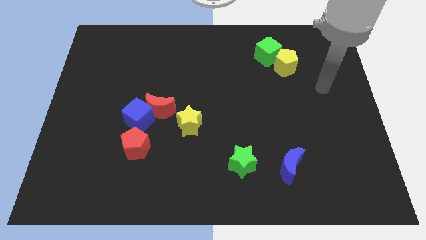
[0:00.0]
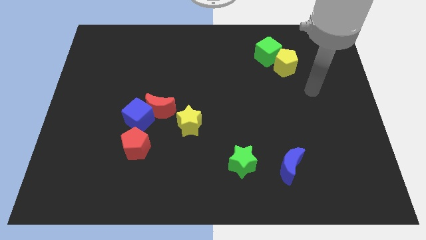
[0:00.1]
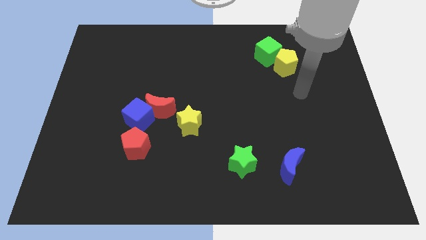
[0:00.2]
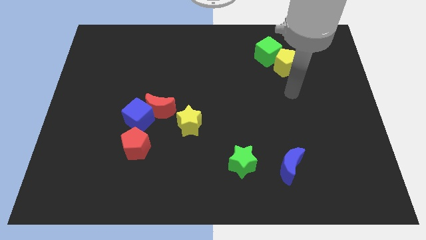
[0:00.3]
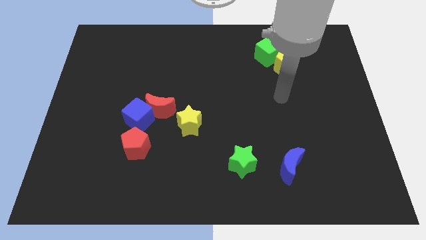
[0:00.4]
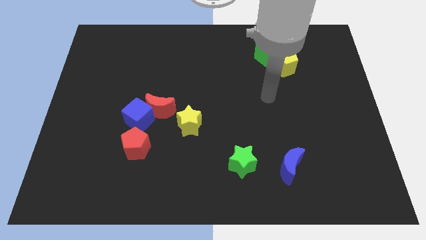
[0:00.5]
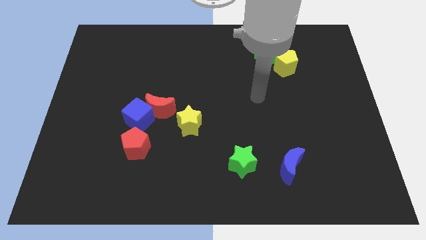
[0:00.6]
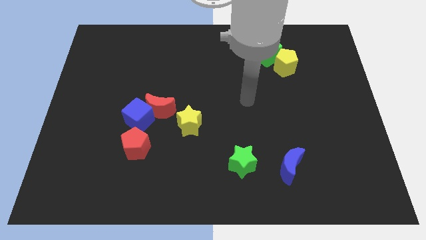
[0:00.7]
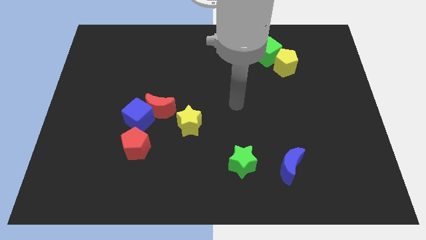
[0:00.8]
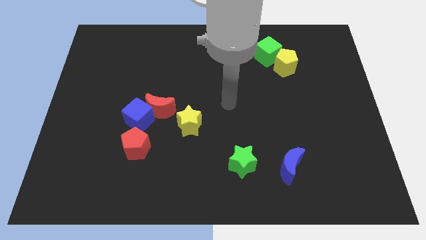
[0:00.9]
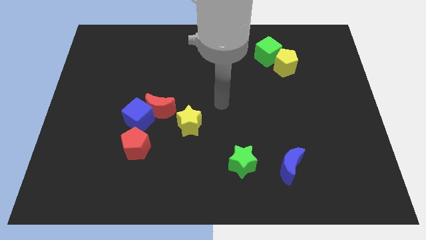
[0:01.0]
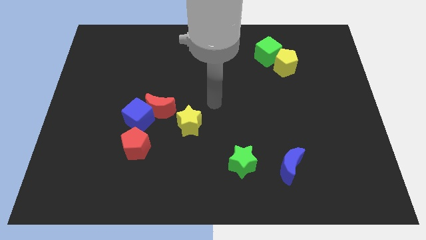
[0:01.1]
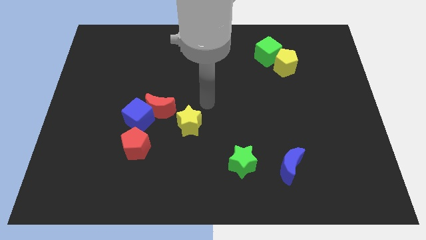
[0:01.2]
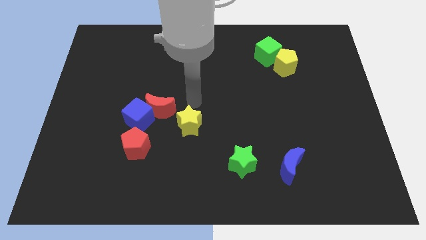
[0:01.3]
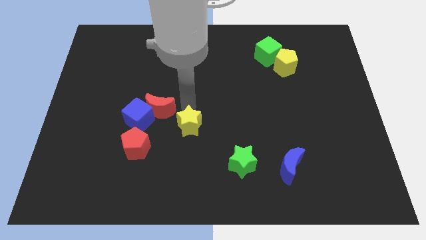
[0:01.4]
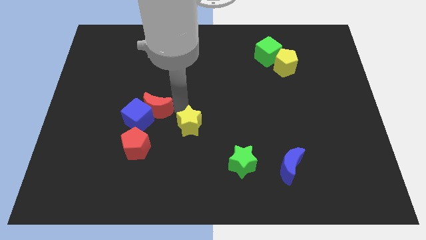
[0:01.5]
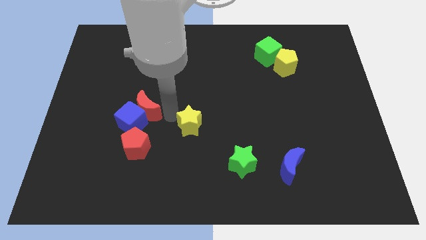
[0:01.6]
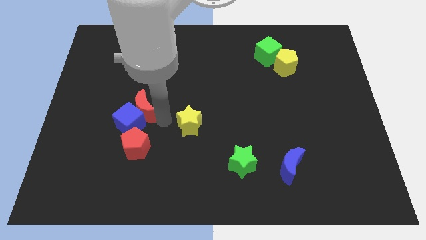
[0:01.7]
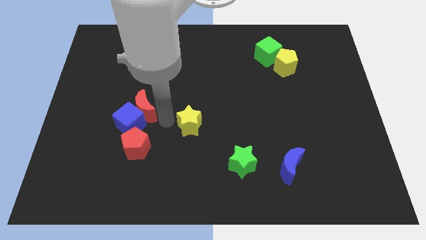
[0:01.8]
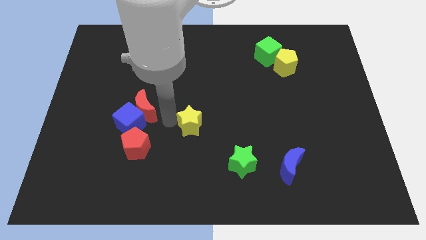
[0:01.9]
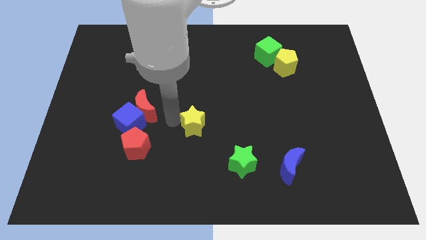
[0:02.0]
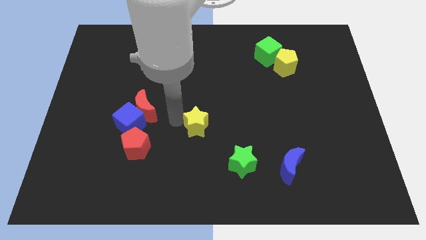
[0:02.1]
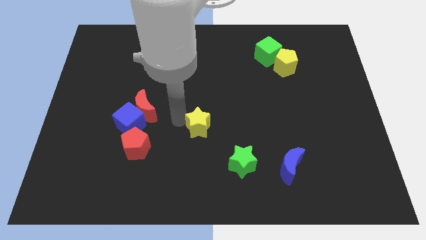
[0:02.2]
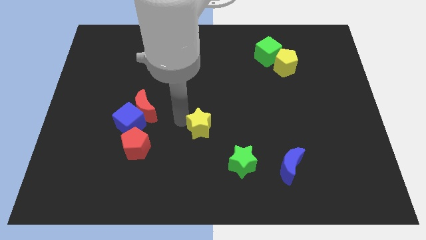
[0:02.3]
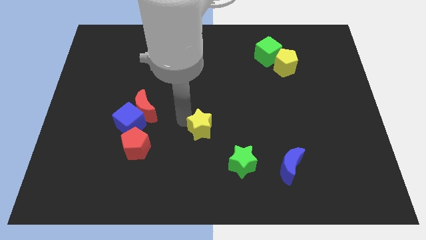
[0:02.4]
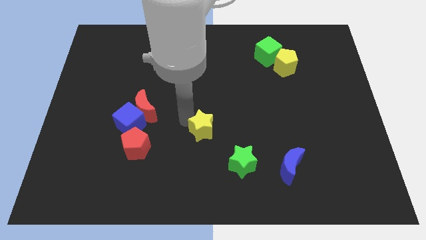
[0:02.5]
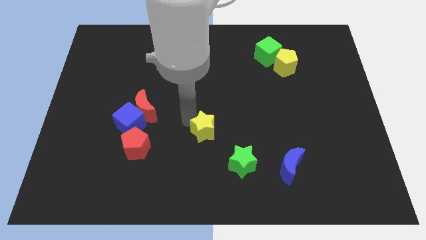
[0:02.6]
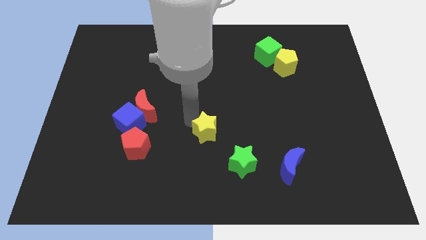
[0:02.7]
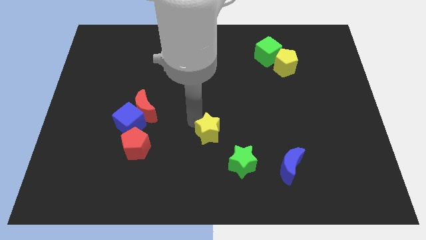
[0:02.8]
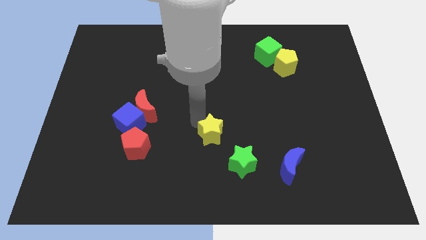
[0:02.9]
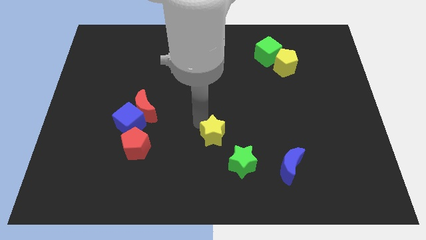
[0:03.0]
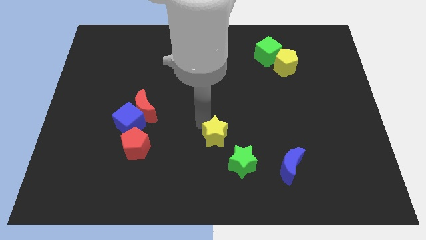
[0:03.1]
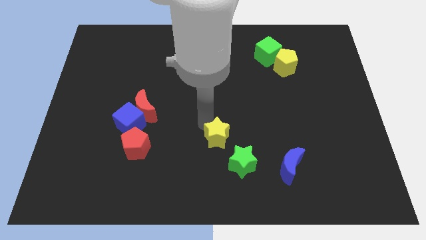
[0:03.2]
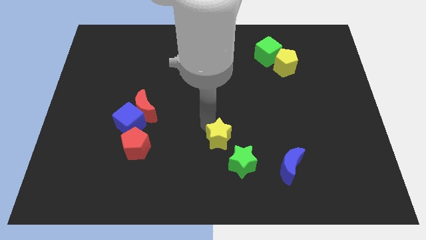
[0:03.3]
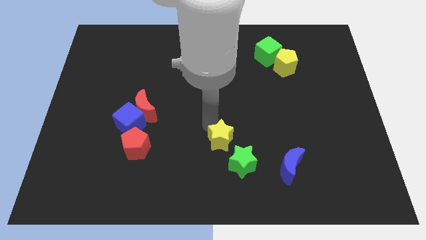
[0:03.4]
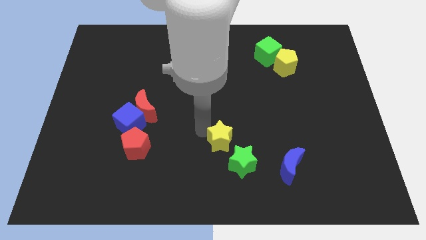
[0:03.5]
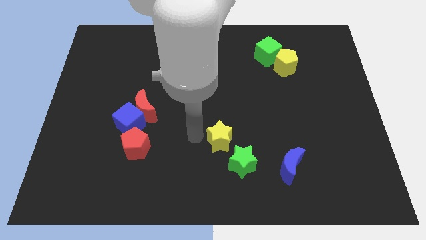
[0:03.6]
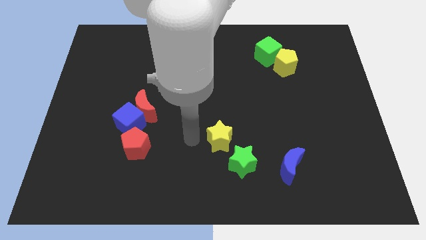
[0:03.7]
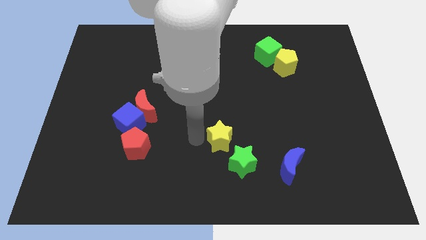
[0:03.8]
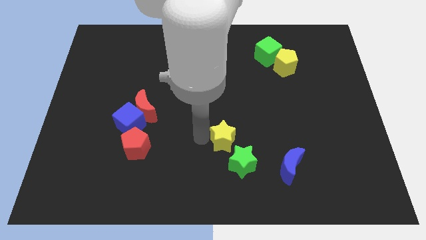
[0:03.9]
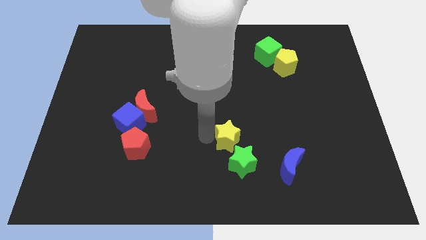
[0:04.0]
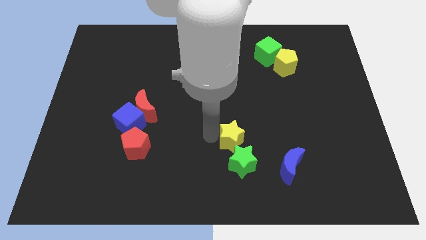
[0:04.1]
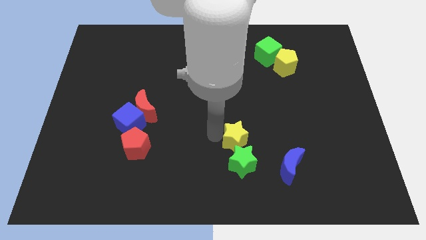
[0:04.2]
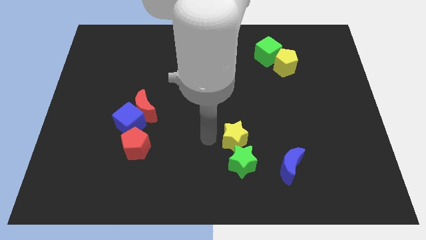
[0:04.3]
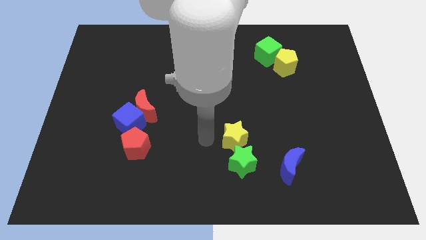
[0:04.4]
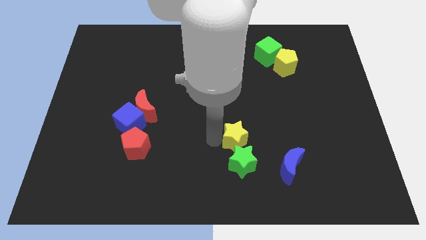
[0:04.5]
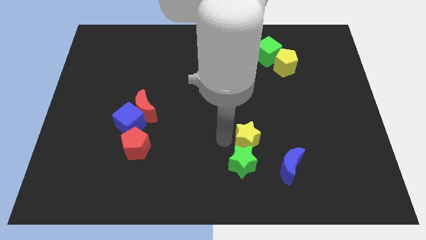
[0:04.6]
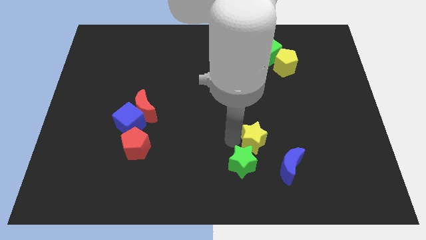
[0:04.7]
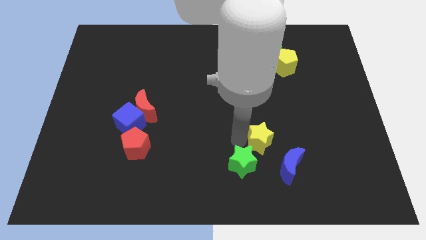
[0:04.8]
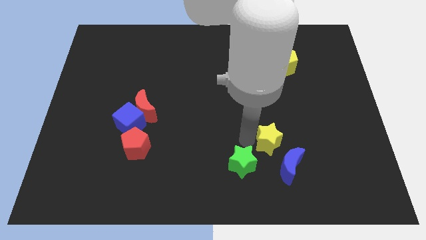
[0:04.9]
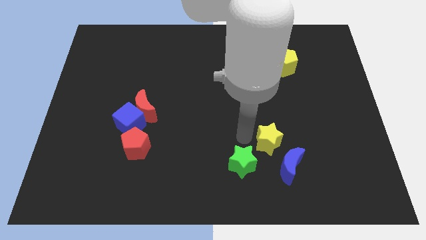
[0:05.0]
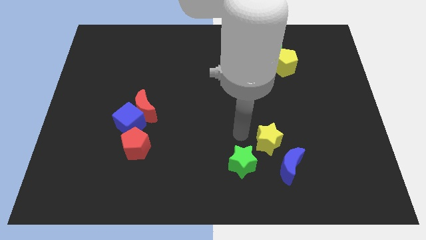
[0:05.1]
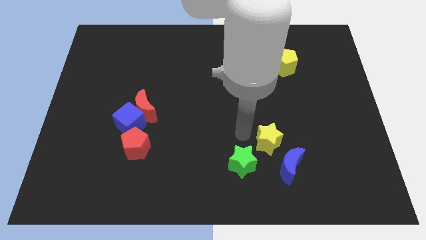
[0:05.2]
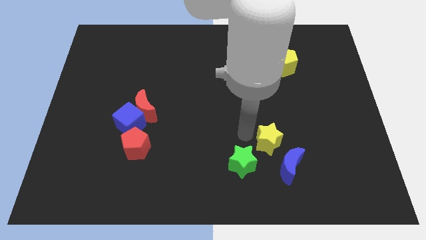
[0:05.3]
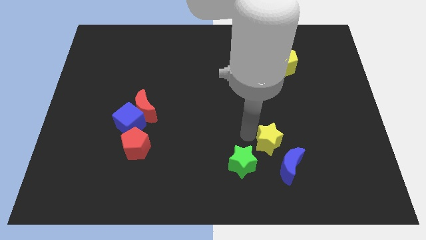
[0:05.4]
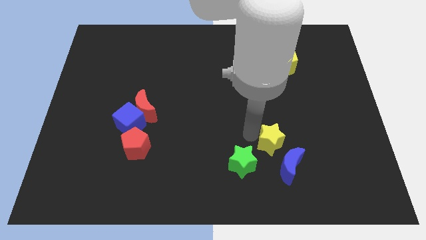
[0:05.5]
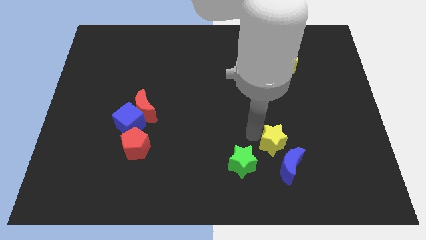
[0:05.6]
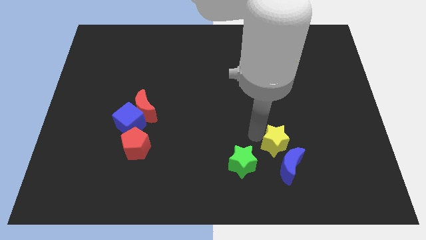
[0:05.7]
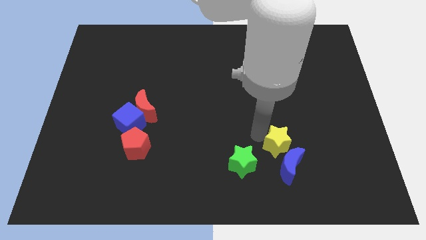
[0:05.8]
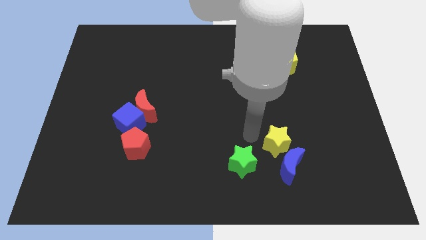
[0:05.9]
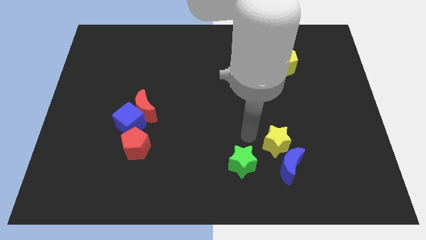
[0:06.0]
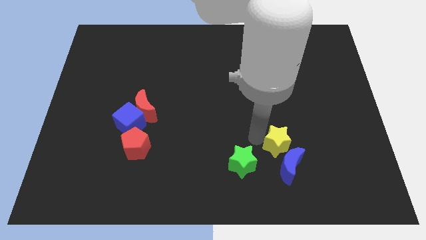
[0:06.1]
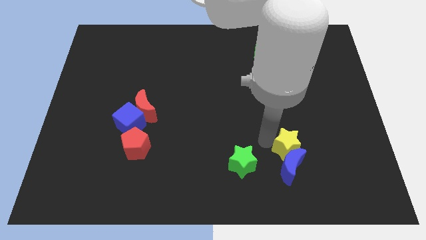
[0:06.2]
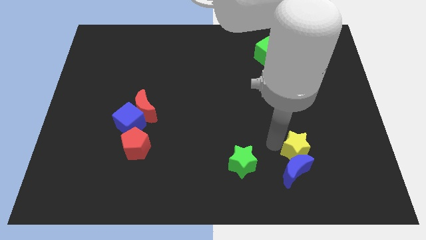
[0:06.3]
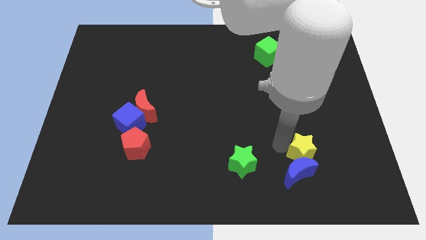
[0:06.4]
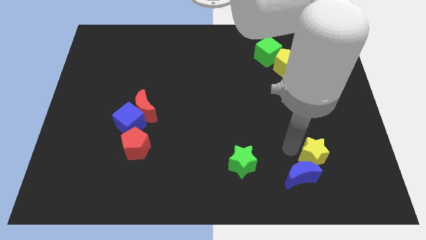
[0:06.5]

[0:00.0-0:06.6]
push the yellow star right of the blue moon
